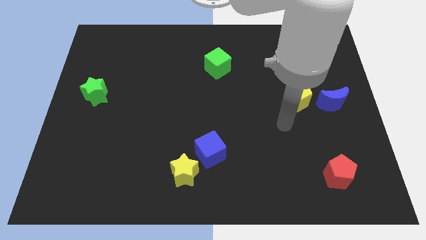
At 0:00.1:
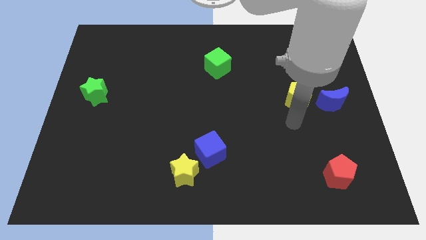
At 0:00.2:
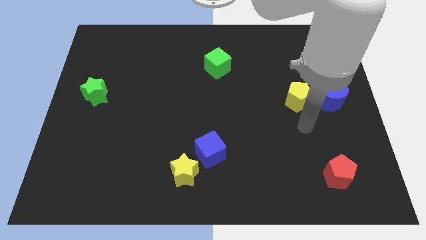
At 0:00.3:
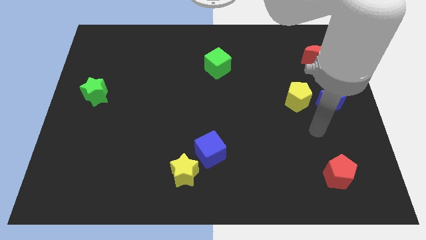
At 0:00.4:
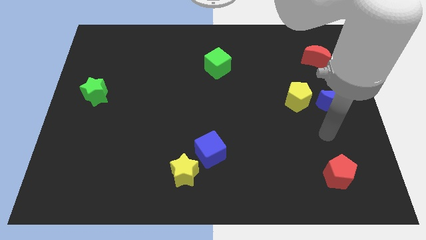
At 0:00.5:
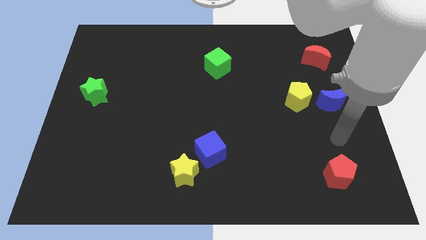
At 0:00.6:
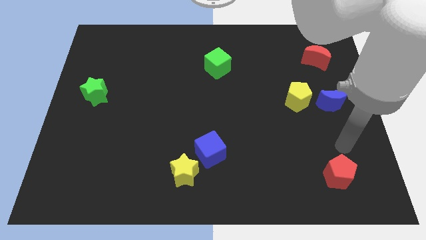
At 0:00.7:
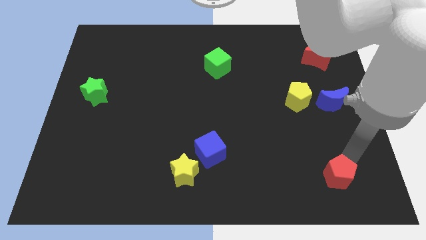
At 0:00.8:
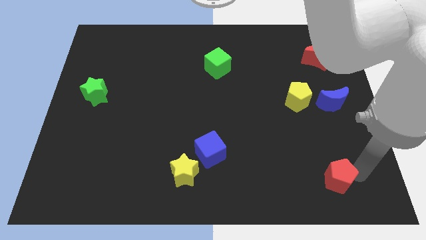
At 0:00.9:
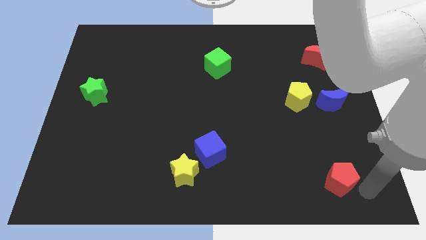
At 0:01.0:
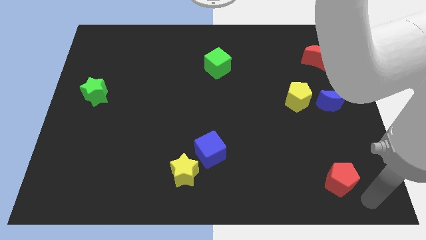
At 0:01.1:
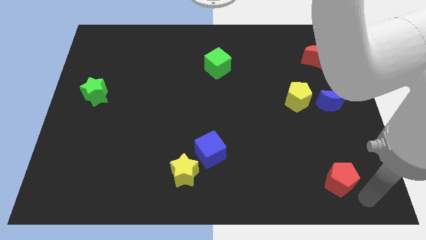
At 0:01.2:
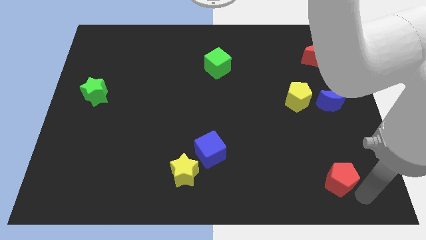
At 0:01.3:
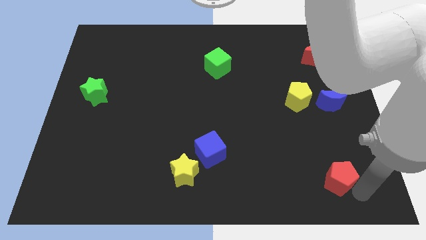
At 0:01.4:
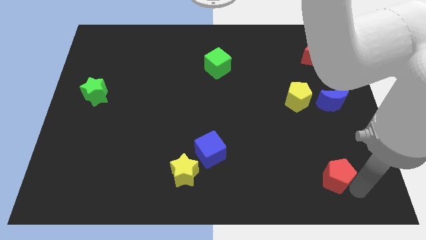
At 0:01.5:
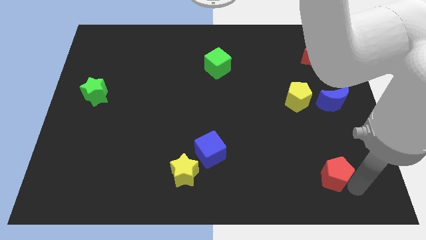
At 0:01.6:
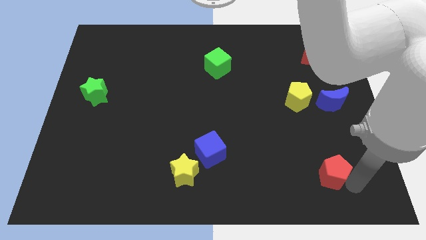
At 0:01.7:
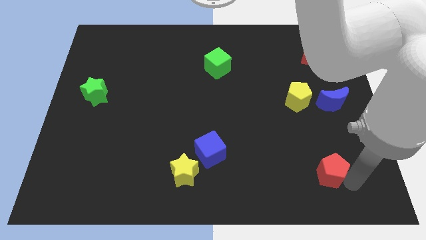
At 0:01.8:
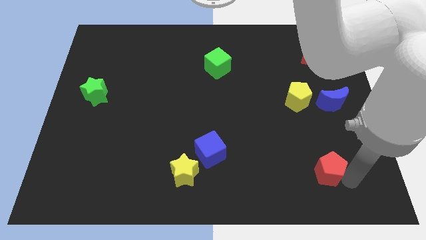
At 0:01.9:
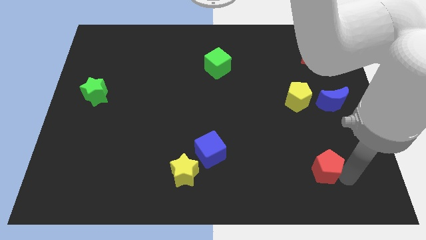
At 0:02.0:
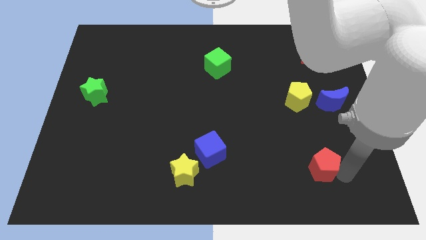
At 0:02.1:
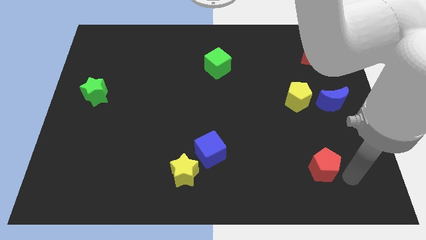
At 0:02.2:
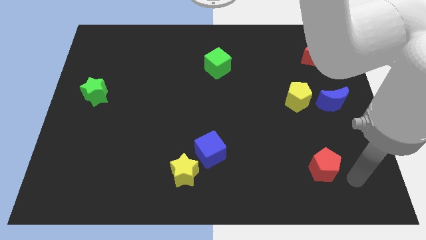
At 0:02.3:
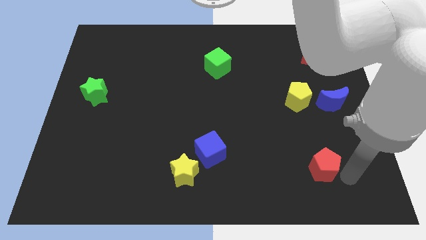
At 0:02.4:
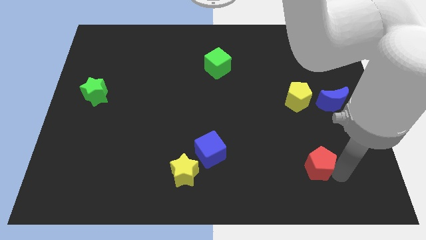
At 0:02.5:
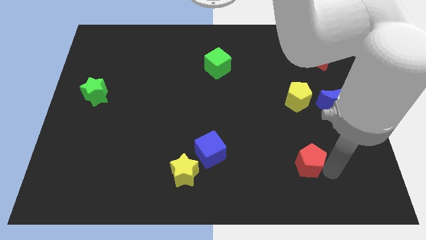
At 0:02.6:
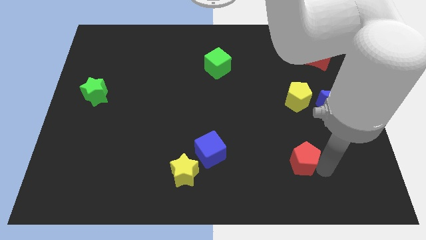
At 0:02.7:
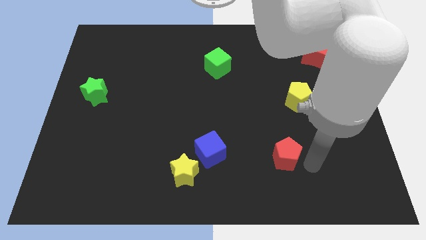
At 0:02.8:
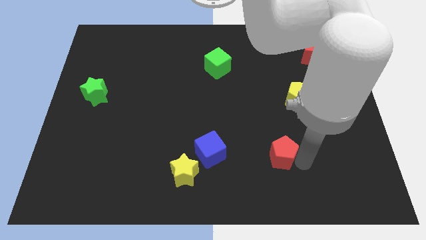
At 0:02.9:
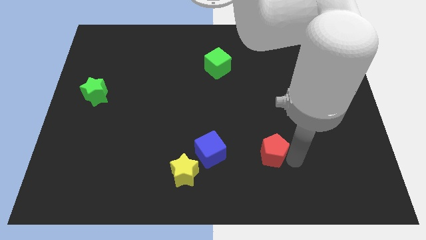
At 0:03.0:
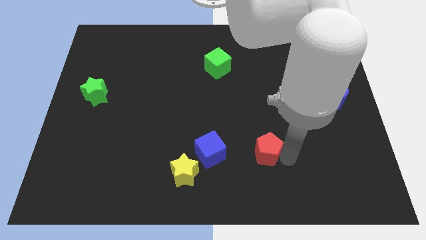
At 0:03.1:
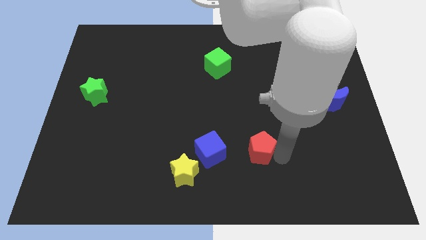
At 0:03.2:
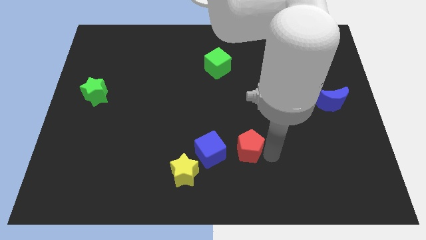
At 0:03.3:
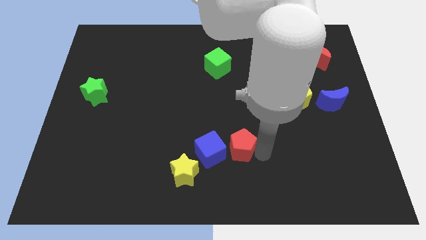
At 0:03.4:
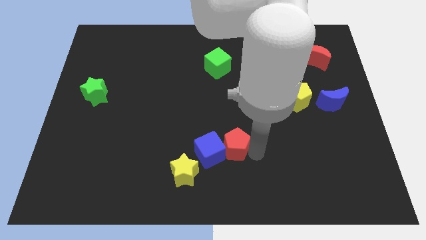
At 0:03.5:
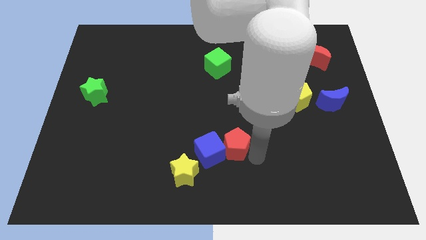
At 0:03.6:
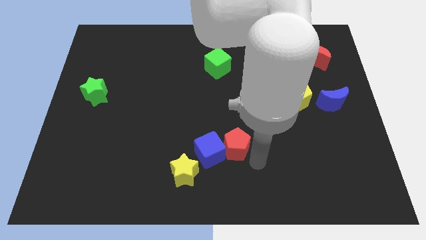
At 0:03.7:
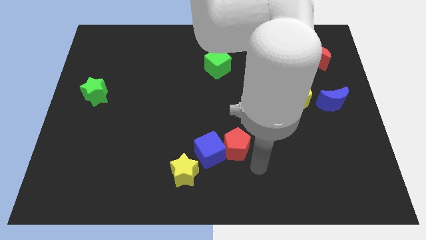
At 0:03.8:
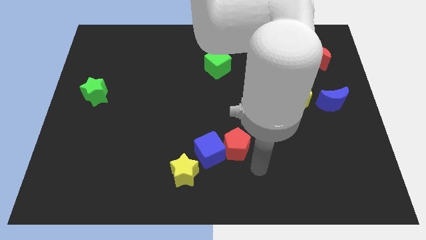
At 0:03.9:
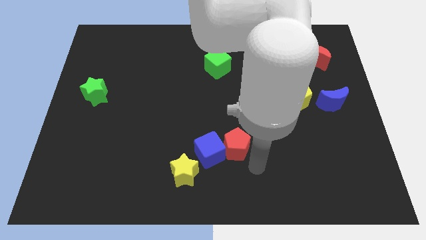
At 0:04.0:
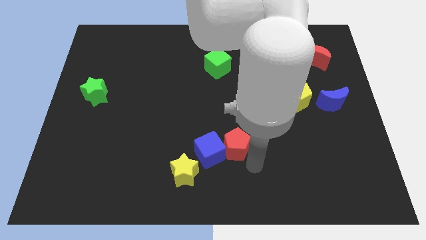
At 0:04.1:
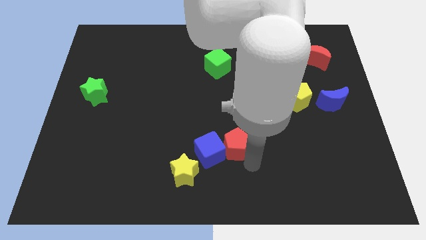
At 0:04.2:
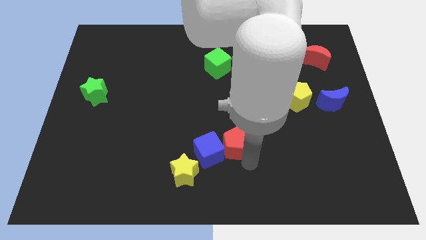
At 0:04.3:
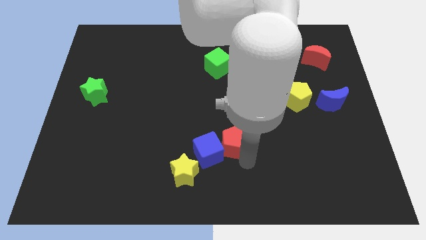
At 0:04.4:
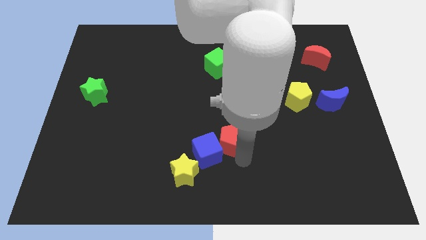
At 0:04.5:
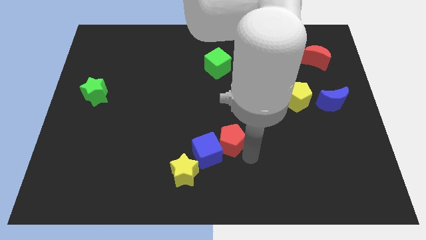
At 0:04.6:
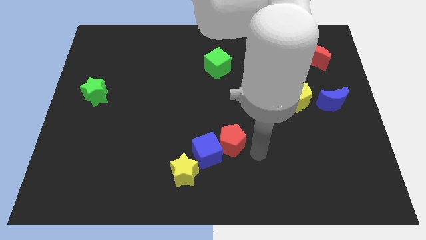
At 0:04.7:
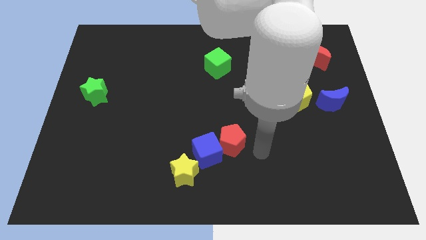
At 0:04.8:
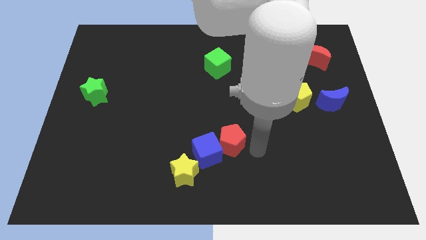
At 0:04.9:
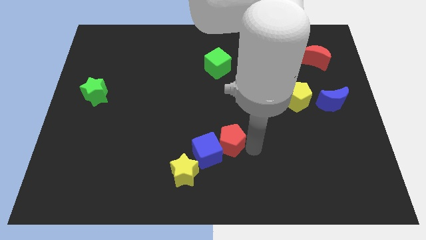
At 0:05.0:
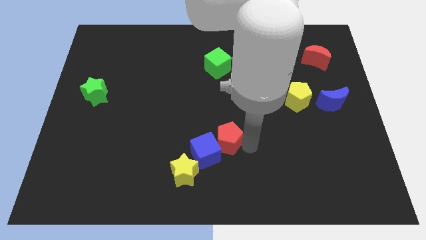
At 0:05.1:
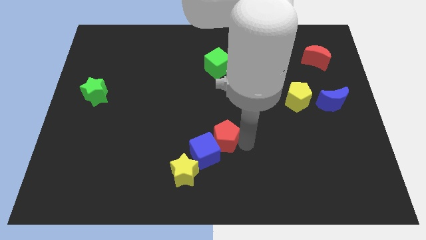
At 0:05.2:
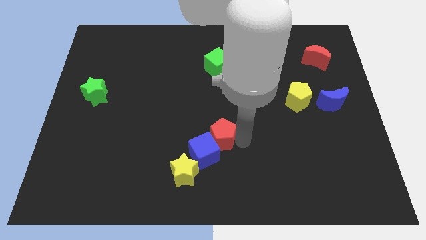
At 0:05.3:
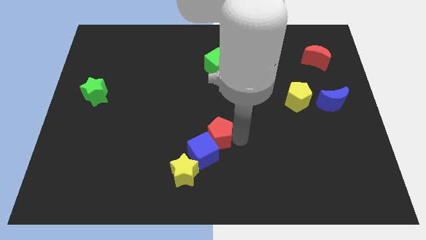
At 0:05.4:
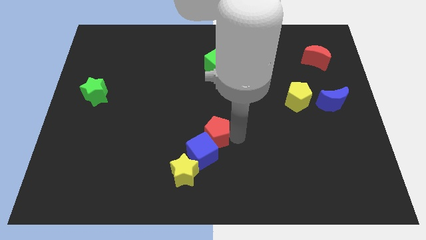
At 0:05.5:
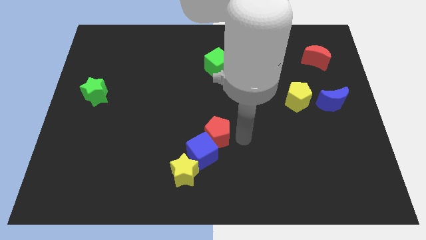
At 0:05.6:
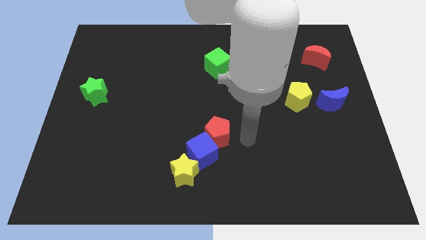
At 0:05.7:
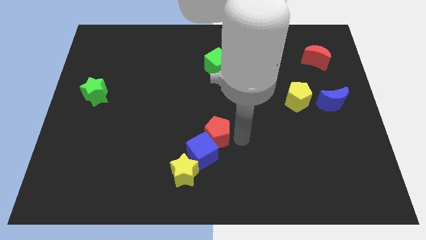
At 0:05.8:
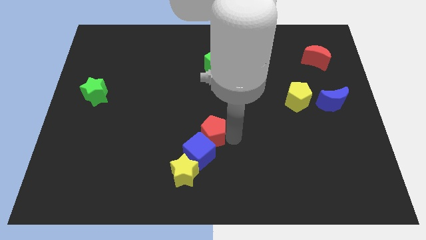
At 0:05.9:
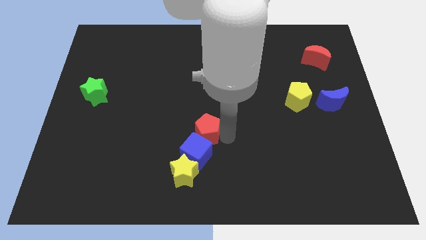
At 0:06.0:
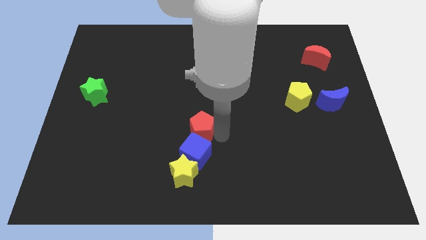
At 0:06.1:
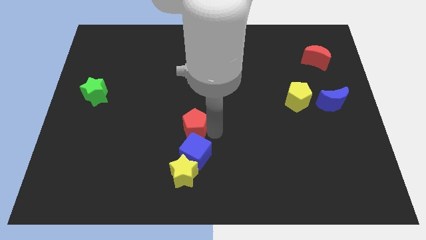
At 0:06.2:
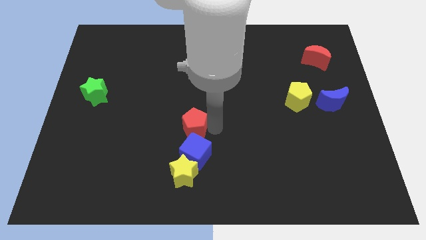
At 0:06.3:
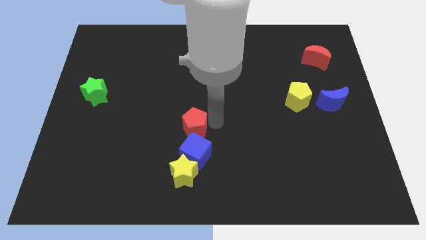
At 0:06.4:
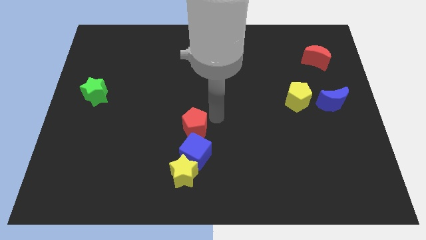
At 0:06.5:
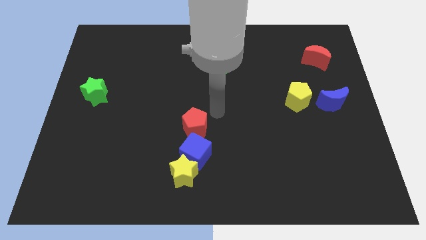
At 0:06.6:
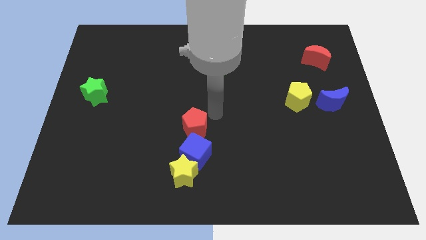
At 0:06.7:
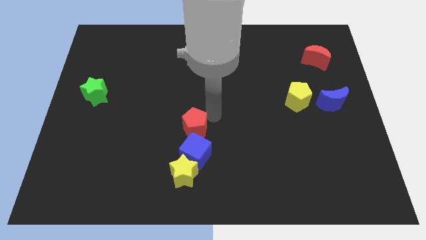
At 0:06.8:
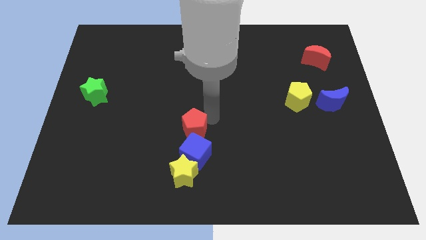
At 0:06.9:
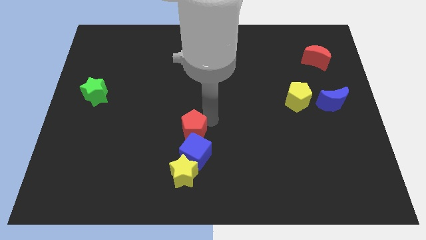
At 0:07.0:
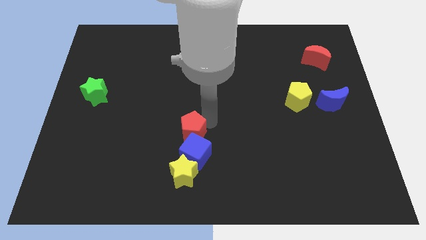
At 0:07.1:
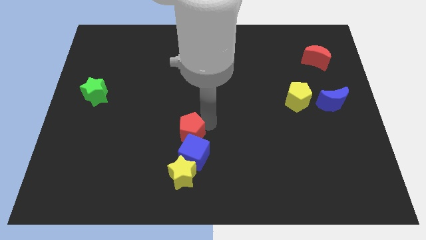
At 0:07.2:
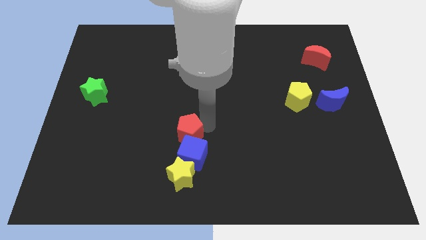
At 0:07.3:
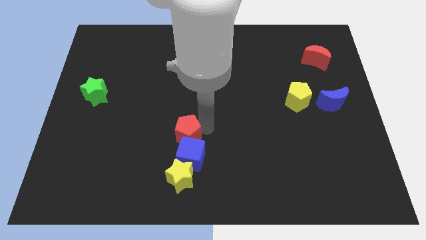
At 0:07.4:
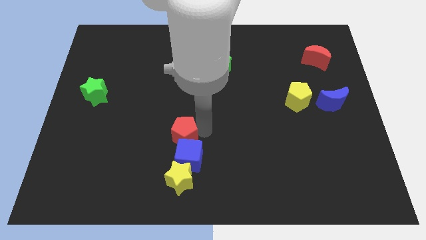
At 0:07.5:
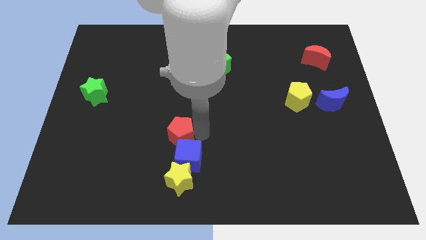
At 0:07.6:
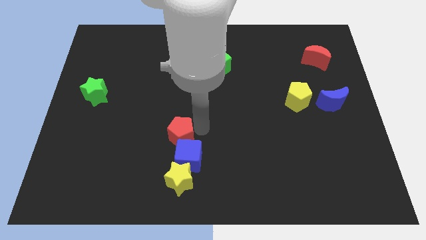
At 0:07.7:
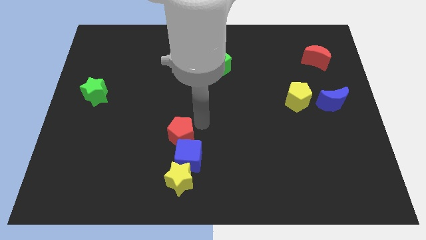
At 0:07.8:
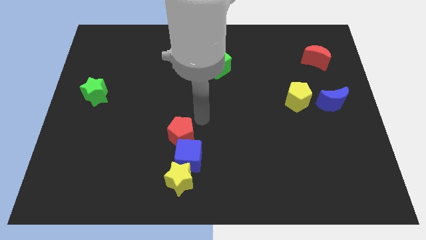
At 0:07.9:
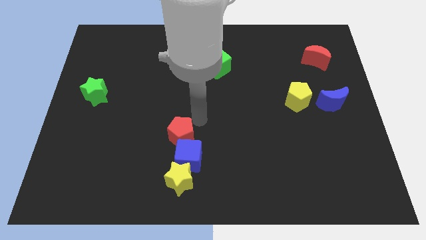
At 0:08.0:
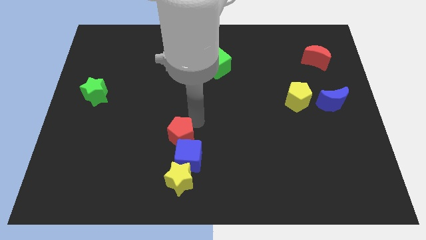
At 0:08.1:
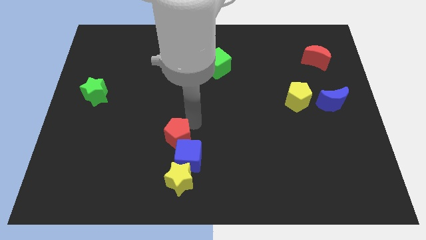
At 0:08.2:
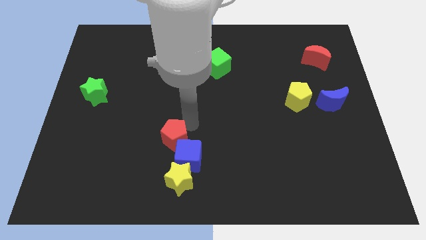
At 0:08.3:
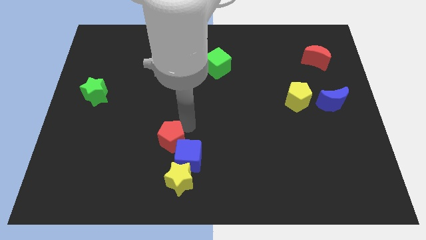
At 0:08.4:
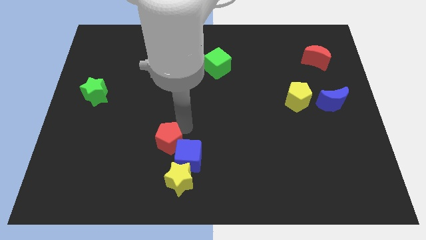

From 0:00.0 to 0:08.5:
move the red pentagon to the top left side of the yellow star

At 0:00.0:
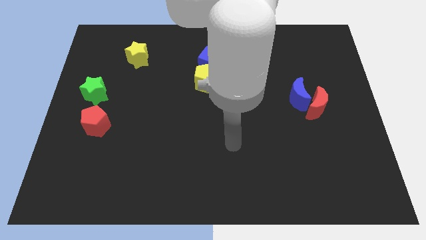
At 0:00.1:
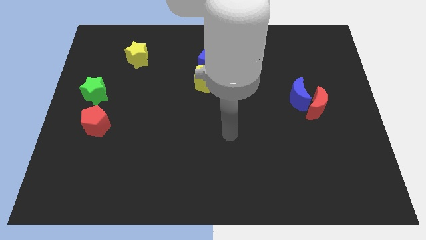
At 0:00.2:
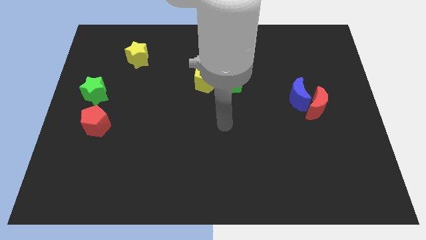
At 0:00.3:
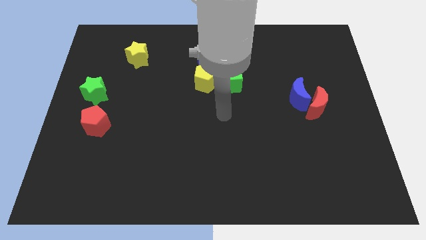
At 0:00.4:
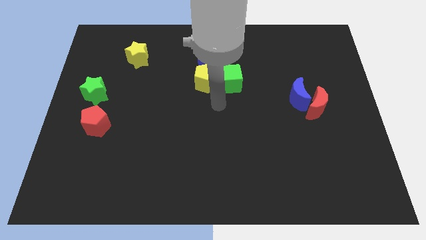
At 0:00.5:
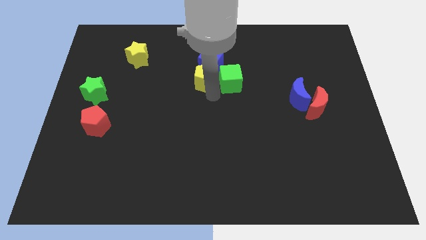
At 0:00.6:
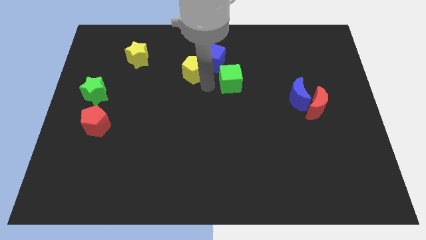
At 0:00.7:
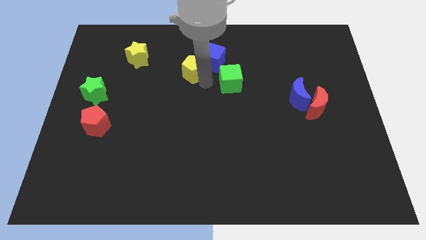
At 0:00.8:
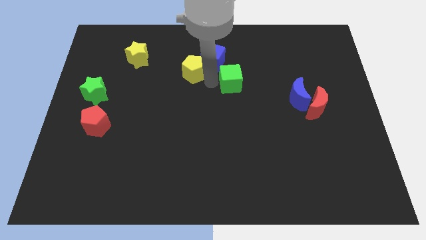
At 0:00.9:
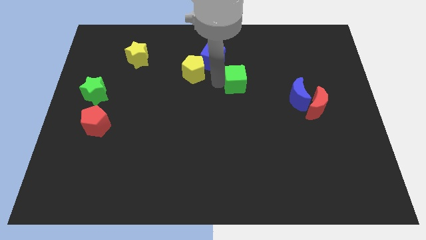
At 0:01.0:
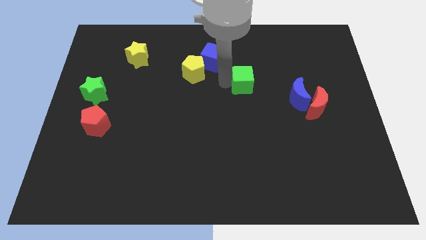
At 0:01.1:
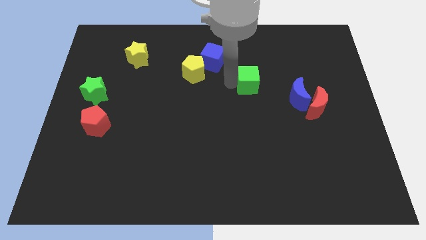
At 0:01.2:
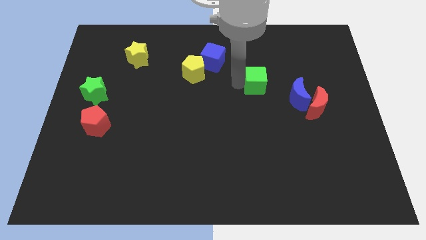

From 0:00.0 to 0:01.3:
put the green cube to the top left side of the blue moon
